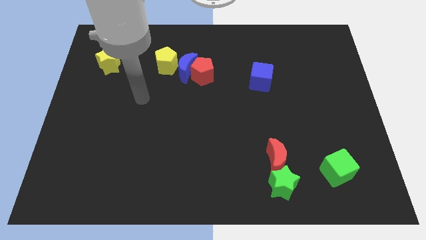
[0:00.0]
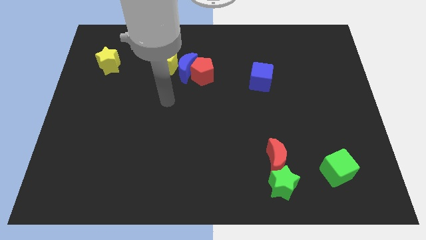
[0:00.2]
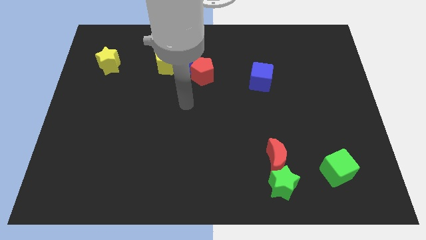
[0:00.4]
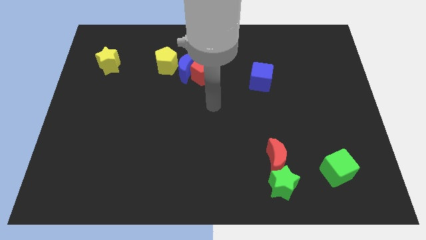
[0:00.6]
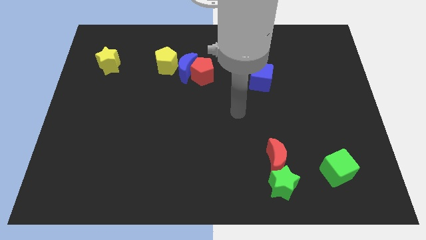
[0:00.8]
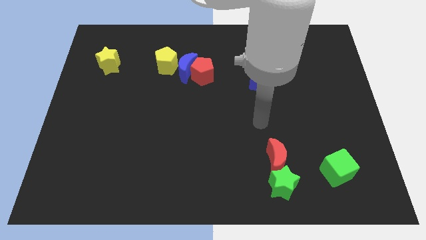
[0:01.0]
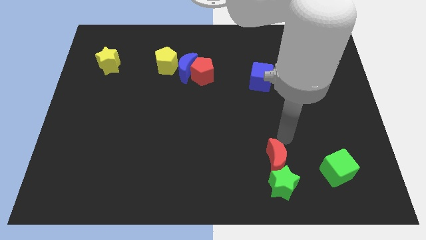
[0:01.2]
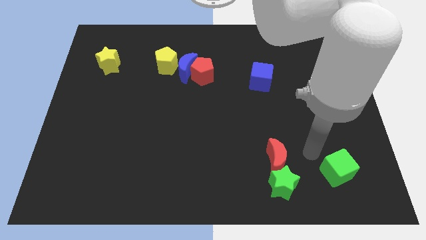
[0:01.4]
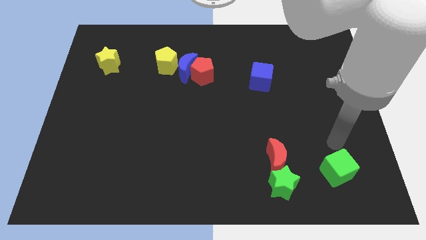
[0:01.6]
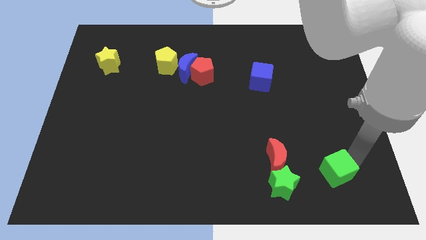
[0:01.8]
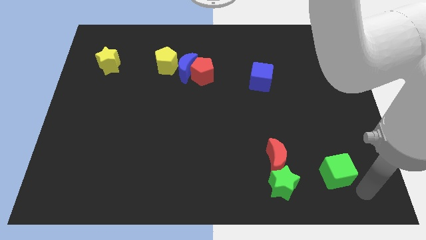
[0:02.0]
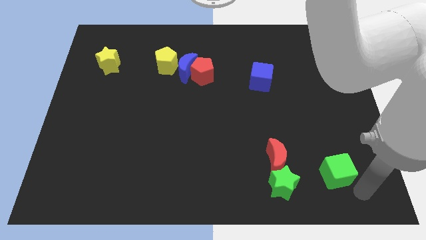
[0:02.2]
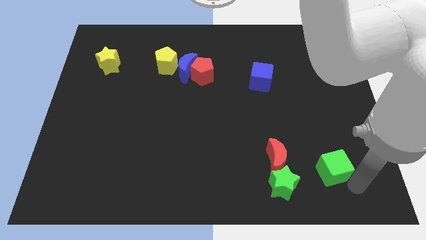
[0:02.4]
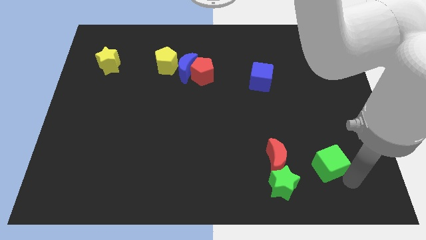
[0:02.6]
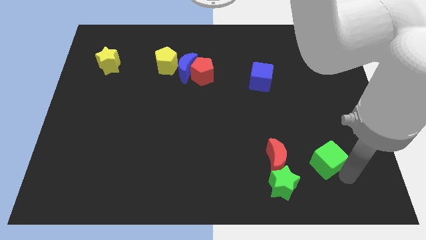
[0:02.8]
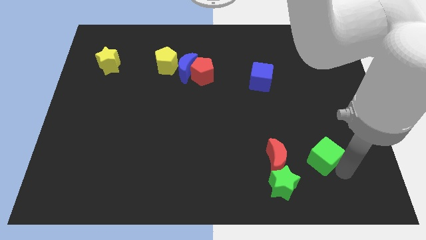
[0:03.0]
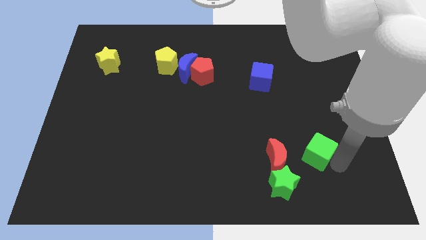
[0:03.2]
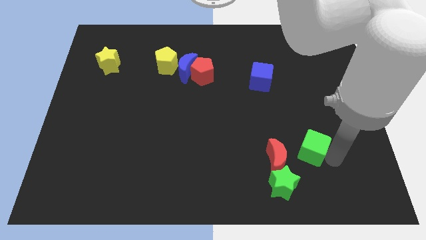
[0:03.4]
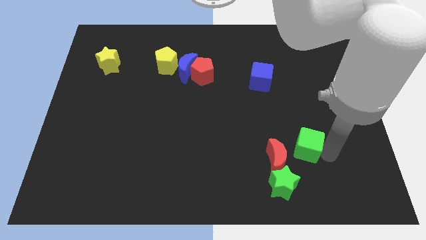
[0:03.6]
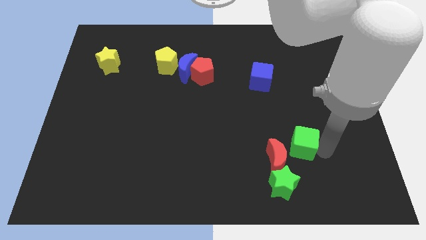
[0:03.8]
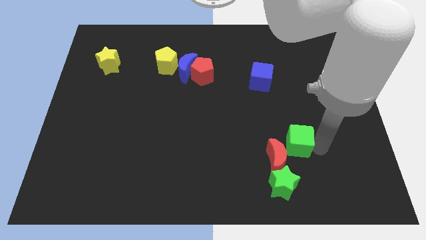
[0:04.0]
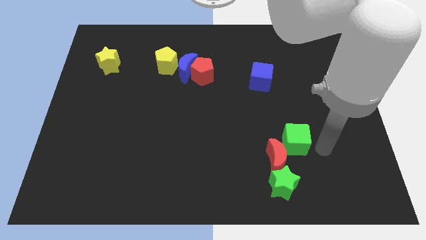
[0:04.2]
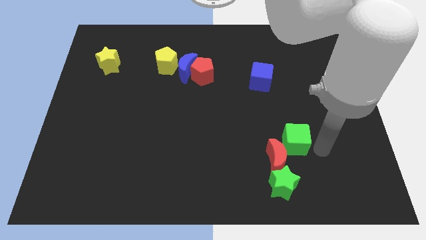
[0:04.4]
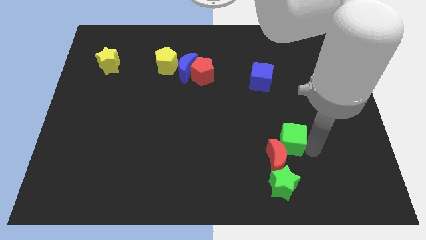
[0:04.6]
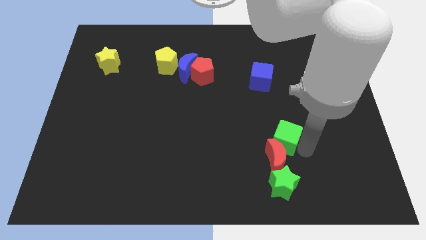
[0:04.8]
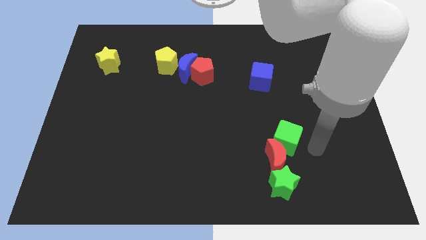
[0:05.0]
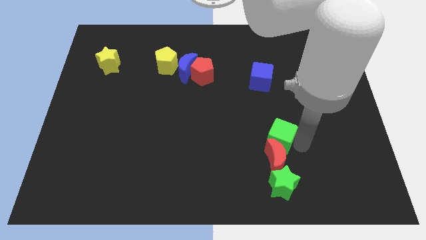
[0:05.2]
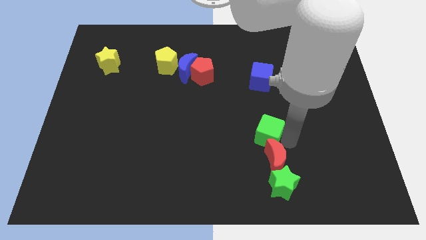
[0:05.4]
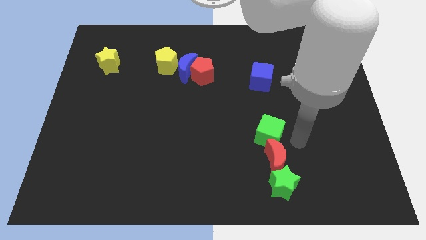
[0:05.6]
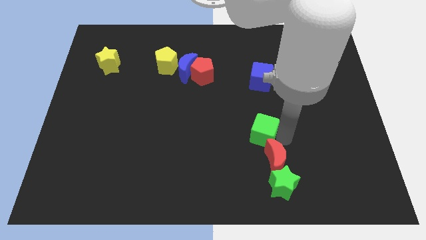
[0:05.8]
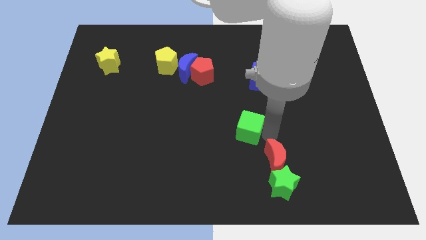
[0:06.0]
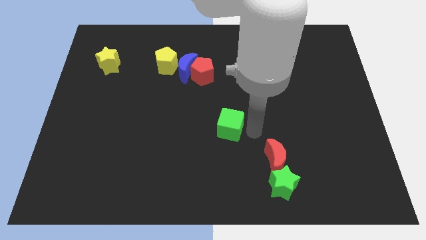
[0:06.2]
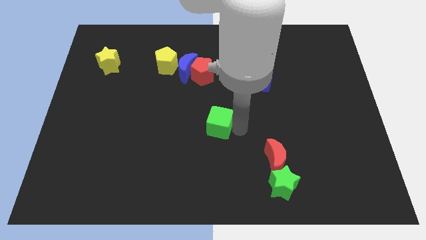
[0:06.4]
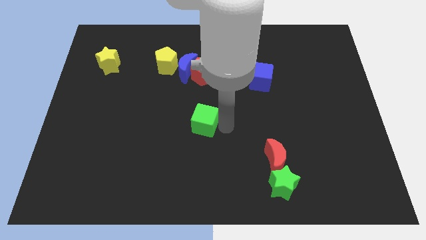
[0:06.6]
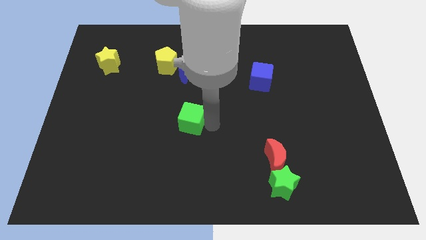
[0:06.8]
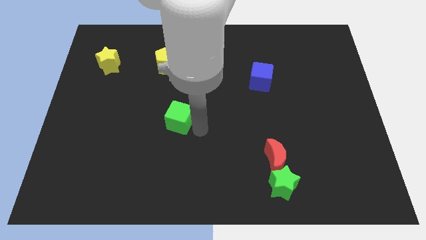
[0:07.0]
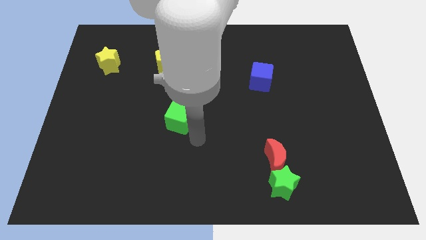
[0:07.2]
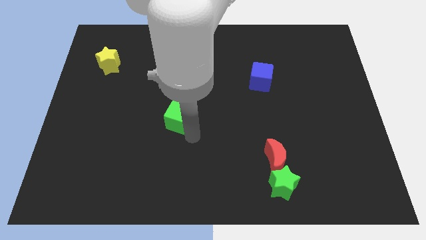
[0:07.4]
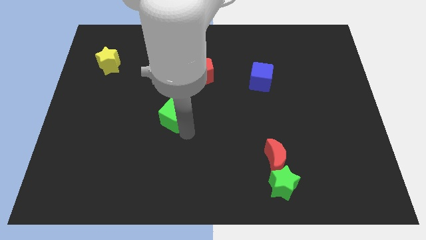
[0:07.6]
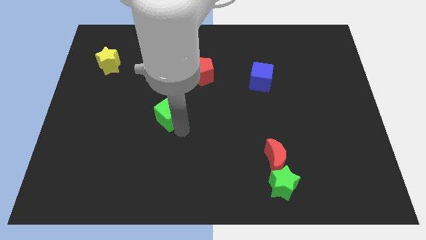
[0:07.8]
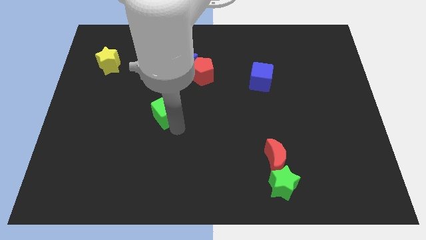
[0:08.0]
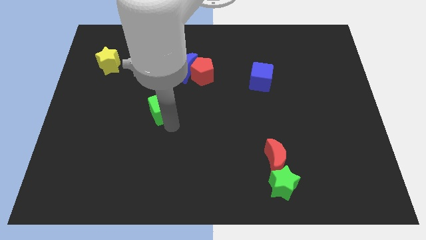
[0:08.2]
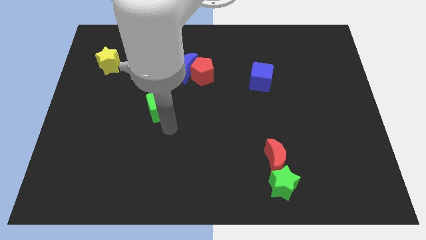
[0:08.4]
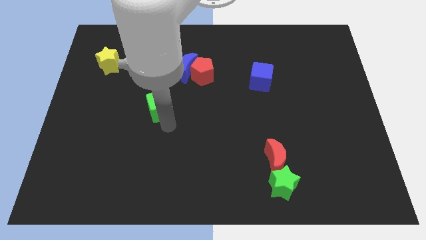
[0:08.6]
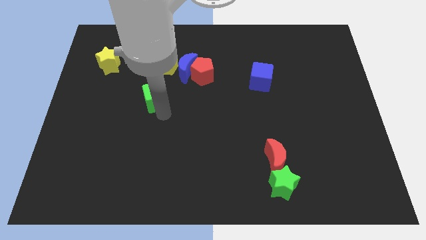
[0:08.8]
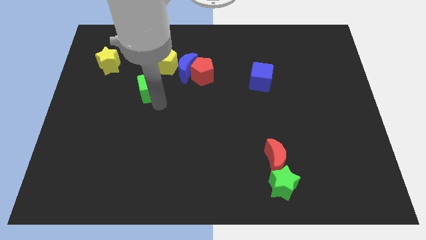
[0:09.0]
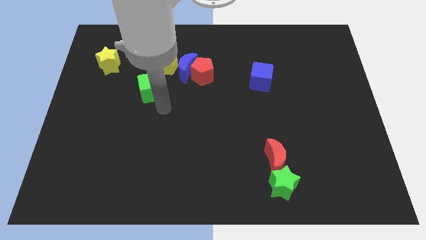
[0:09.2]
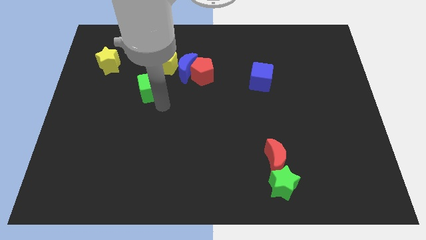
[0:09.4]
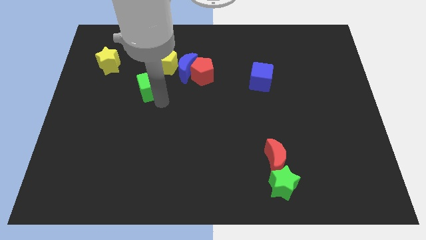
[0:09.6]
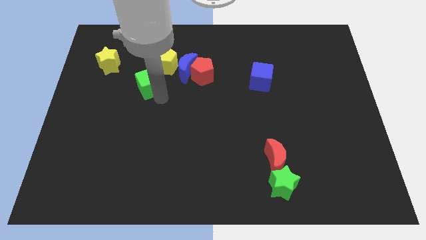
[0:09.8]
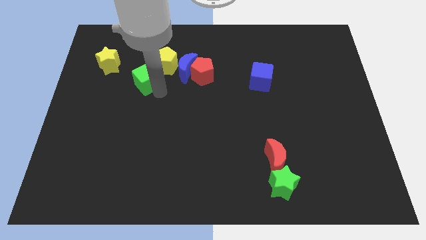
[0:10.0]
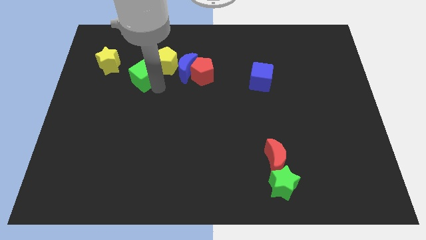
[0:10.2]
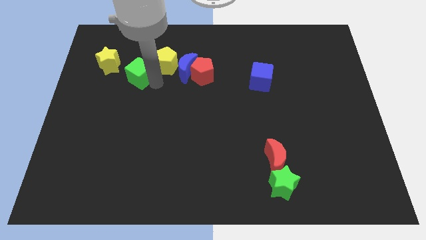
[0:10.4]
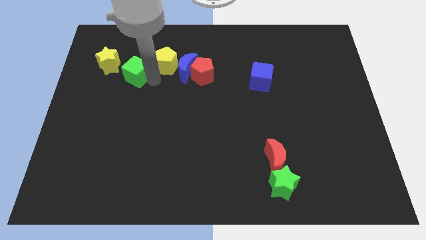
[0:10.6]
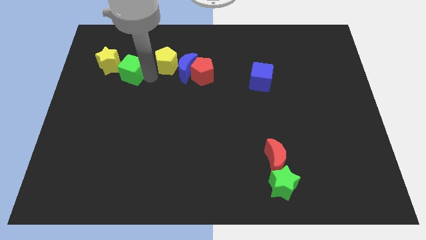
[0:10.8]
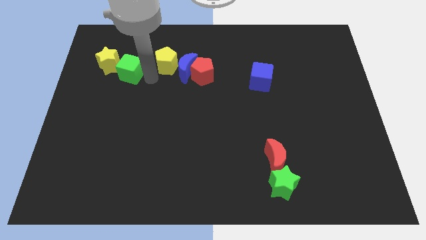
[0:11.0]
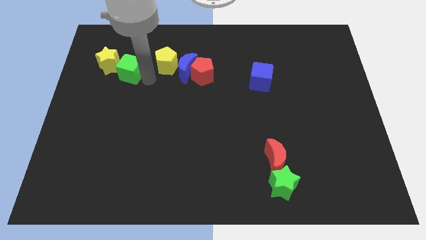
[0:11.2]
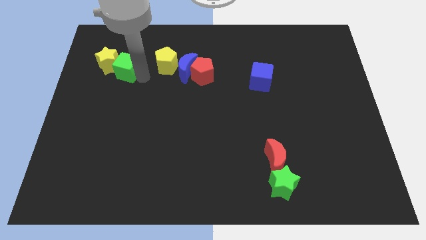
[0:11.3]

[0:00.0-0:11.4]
put the green cube to the yellow star

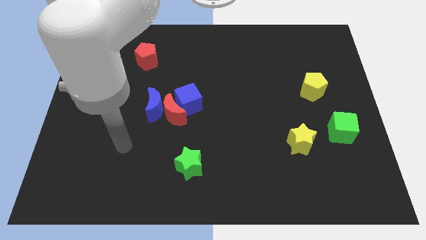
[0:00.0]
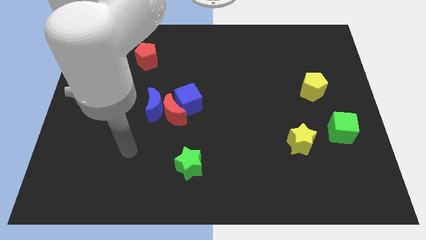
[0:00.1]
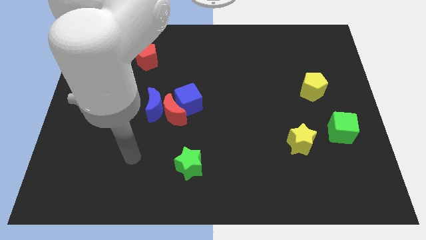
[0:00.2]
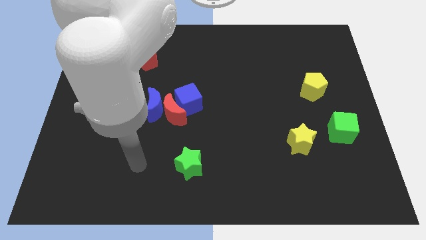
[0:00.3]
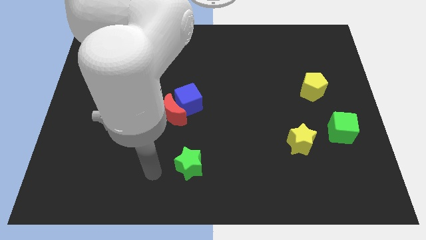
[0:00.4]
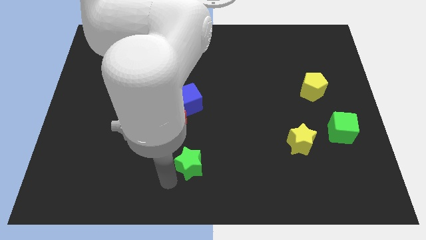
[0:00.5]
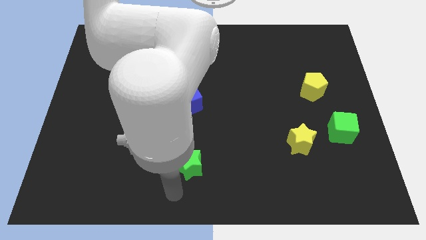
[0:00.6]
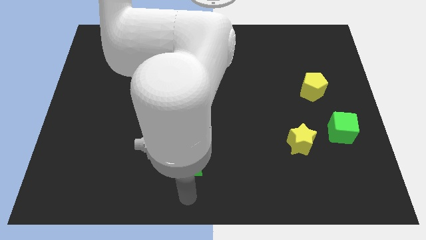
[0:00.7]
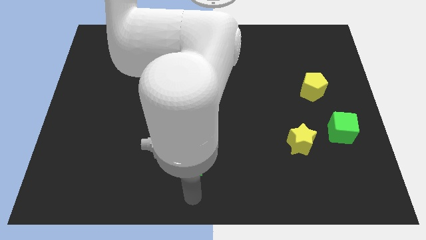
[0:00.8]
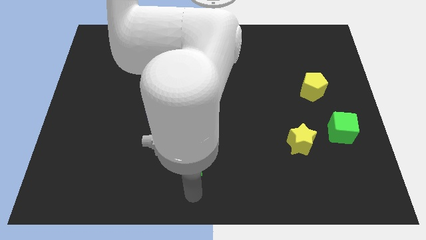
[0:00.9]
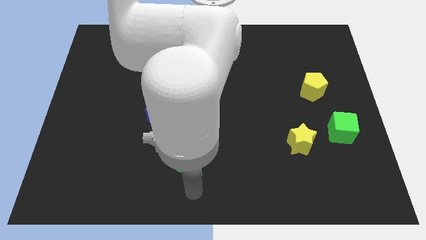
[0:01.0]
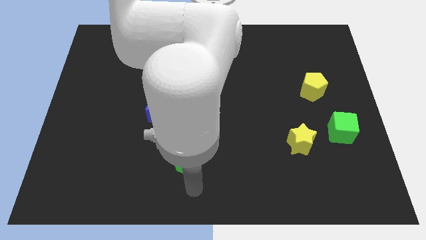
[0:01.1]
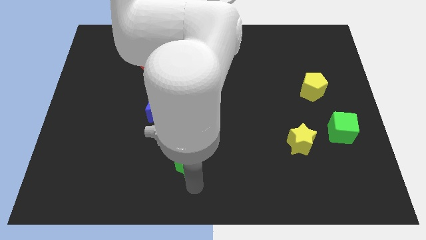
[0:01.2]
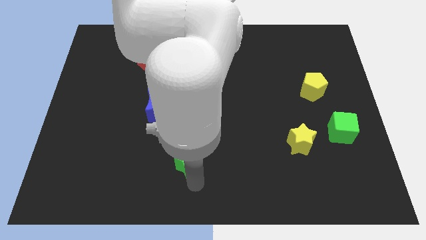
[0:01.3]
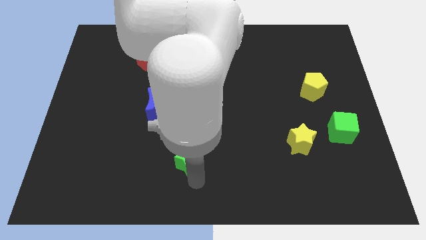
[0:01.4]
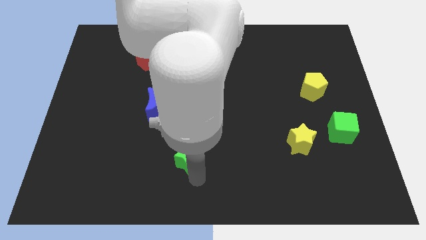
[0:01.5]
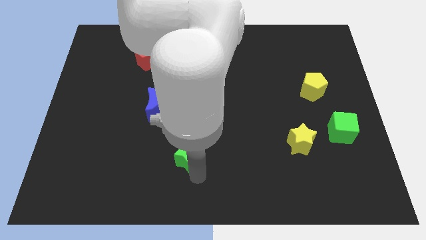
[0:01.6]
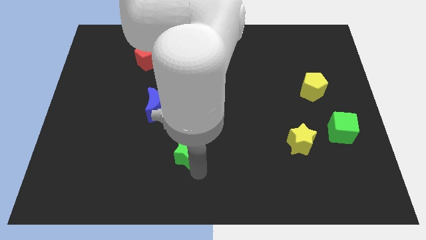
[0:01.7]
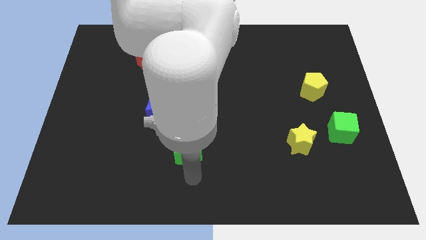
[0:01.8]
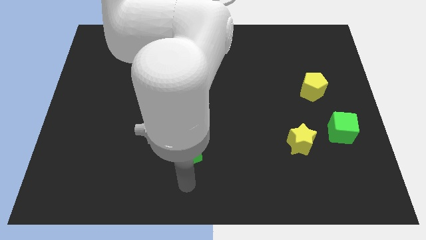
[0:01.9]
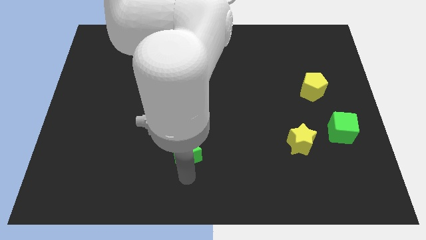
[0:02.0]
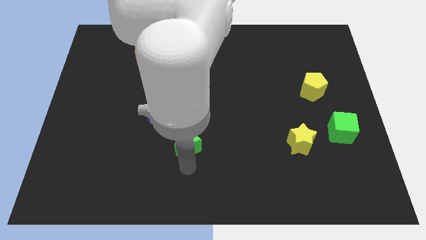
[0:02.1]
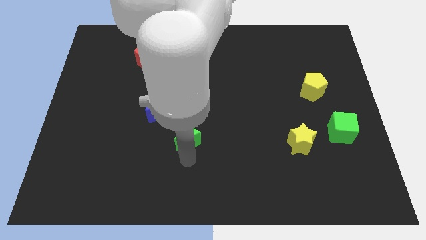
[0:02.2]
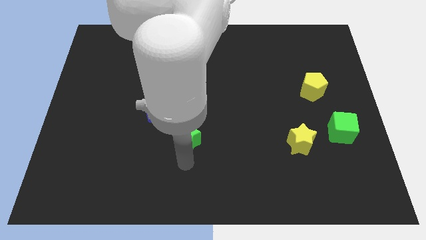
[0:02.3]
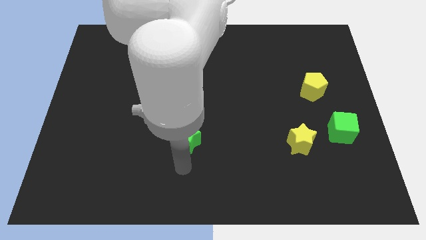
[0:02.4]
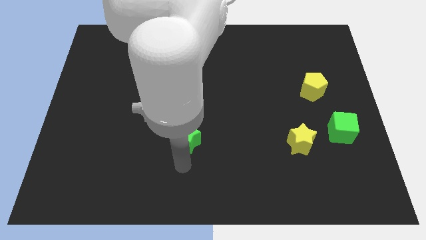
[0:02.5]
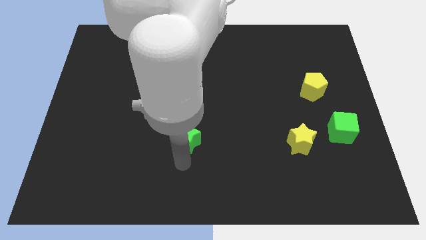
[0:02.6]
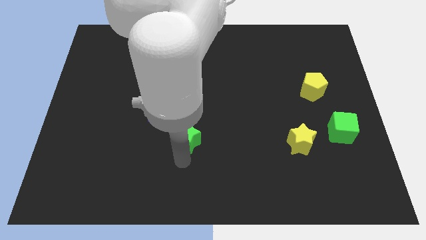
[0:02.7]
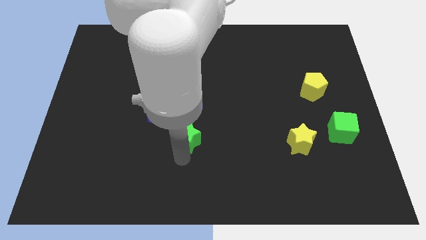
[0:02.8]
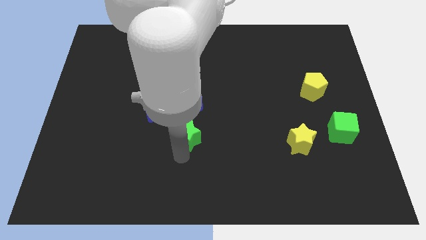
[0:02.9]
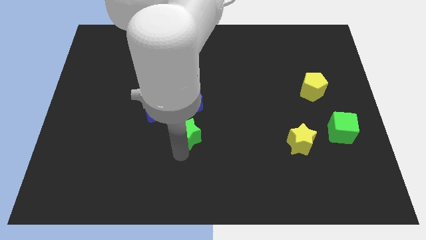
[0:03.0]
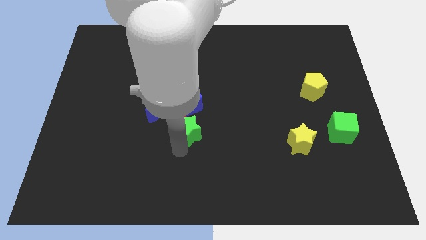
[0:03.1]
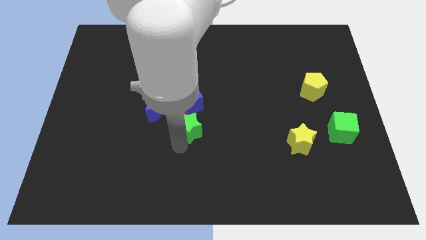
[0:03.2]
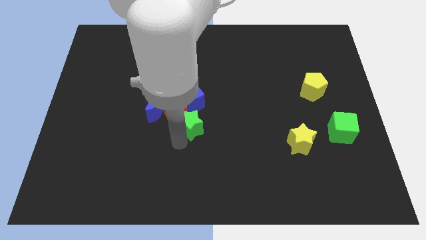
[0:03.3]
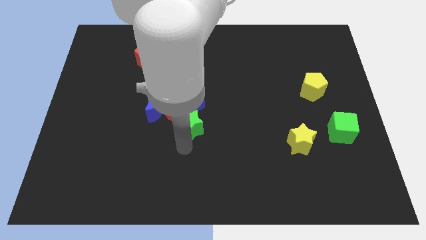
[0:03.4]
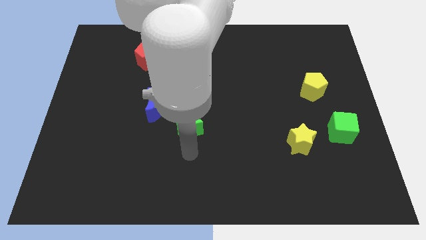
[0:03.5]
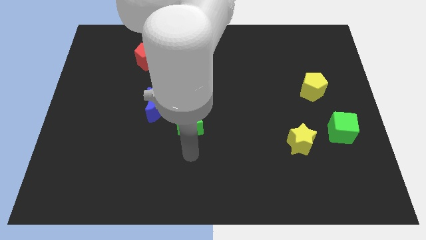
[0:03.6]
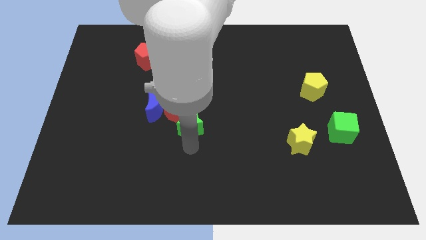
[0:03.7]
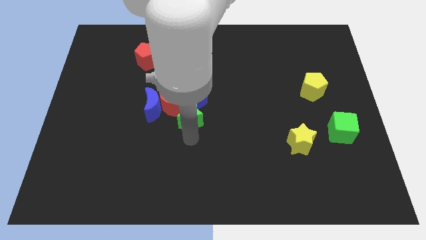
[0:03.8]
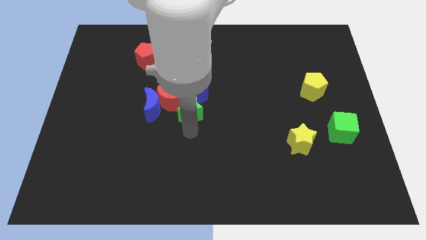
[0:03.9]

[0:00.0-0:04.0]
move the green star close to the blue cube
